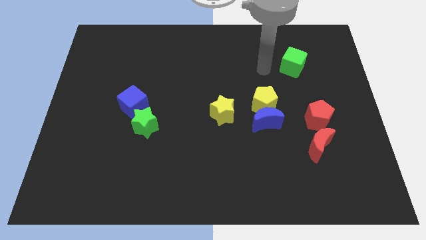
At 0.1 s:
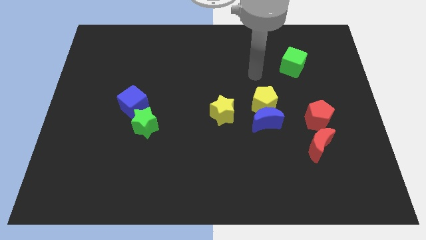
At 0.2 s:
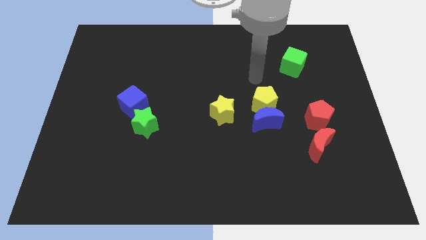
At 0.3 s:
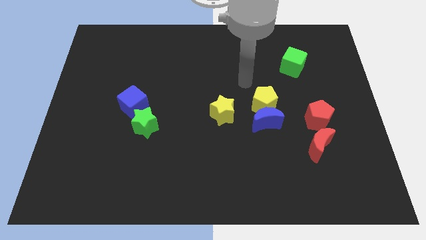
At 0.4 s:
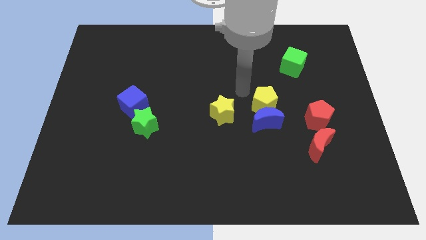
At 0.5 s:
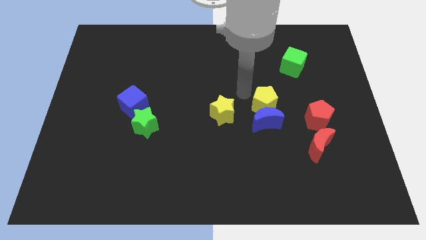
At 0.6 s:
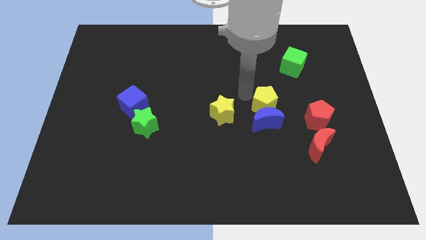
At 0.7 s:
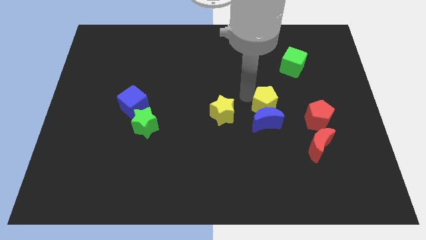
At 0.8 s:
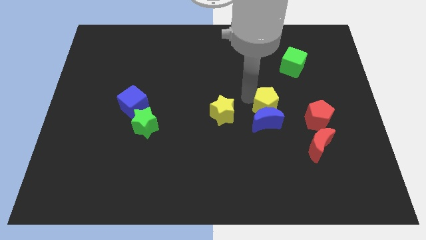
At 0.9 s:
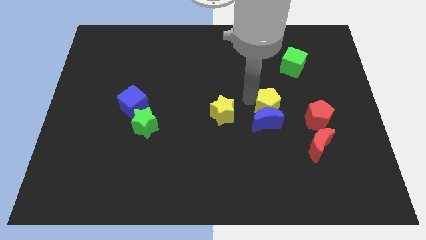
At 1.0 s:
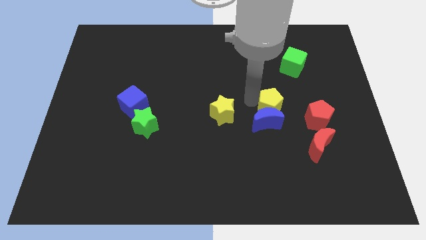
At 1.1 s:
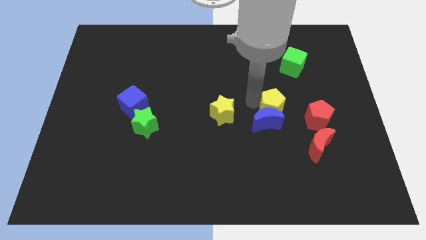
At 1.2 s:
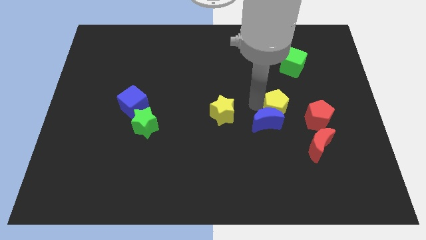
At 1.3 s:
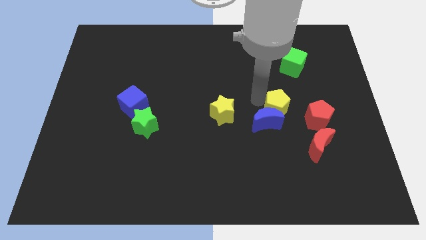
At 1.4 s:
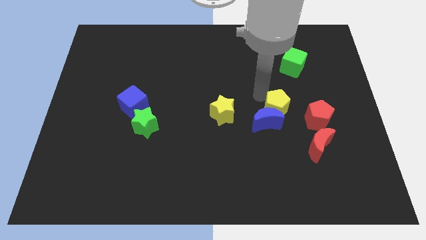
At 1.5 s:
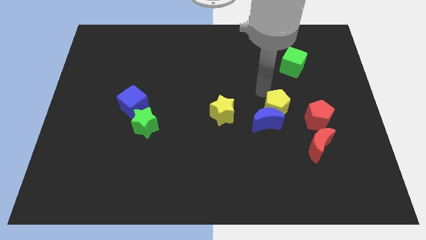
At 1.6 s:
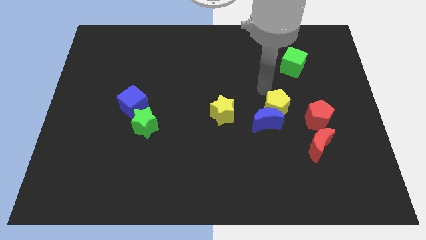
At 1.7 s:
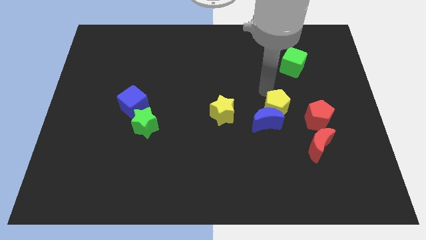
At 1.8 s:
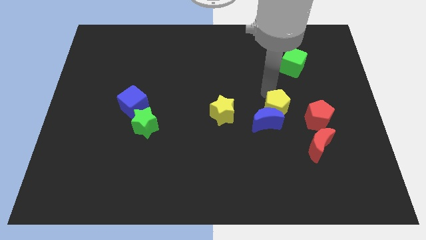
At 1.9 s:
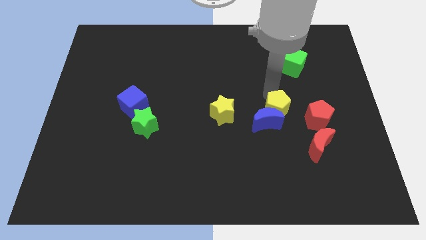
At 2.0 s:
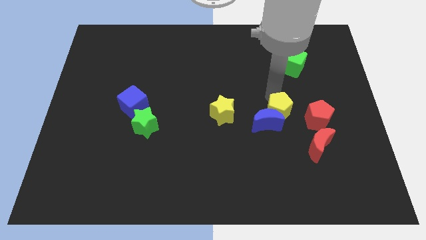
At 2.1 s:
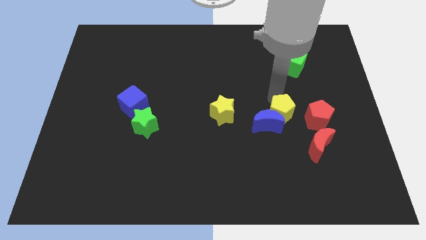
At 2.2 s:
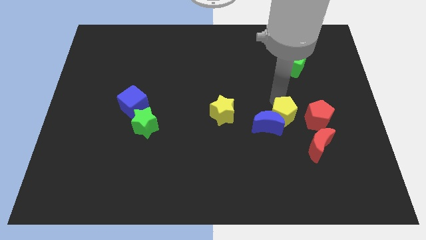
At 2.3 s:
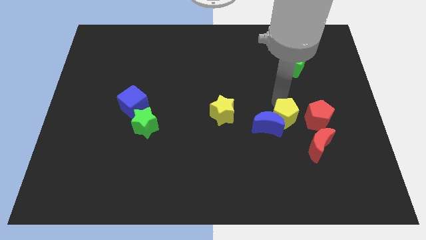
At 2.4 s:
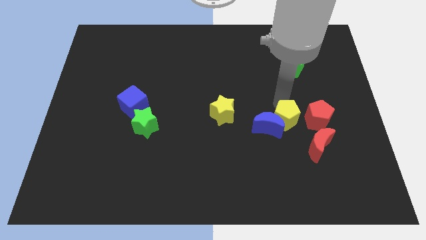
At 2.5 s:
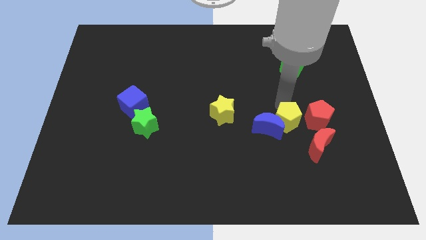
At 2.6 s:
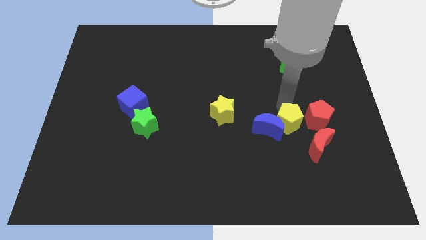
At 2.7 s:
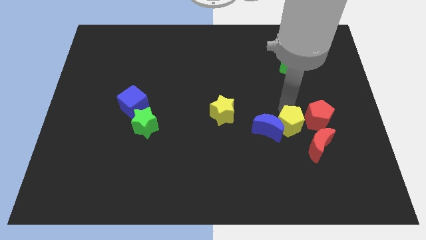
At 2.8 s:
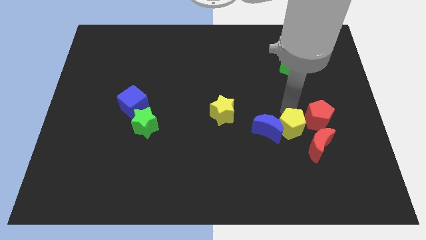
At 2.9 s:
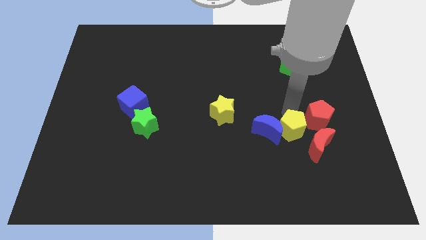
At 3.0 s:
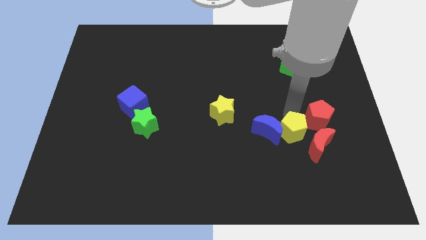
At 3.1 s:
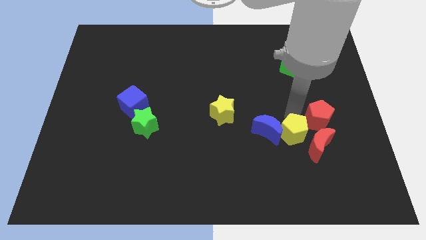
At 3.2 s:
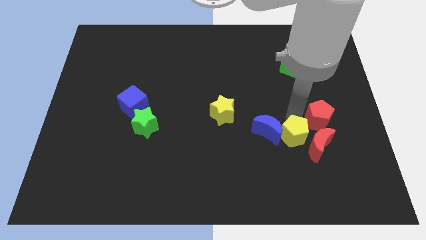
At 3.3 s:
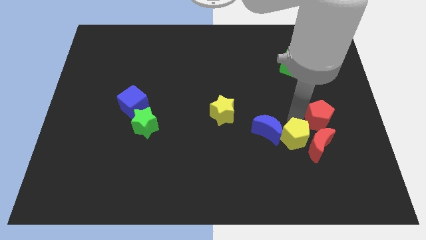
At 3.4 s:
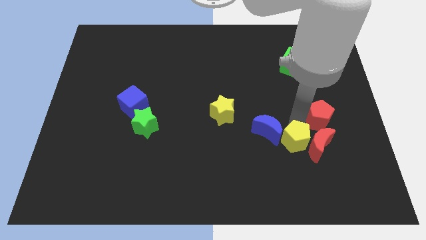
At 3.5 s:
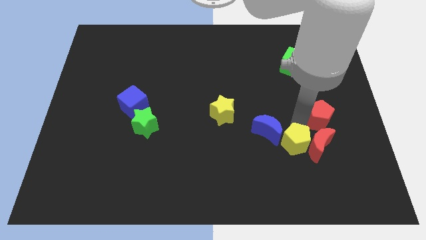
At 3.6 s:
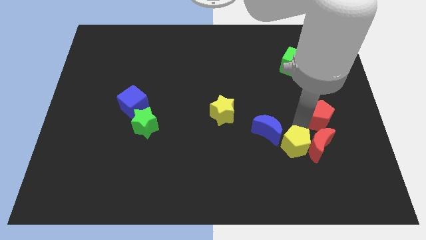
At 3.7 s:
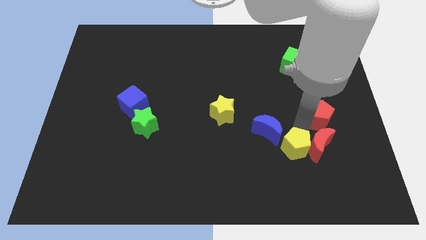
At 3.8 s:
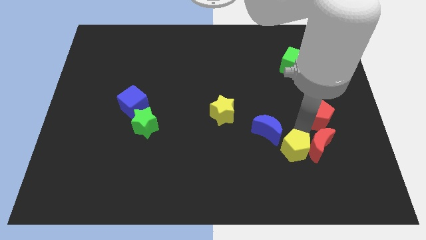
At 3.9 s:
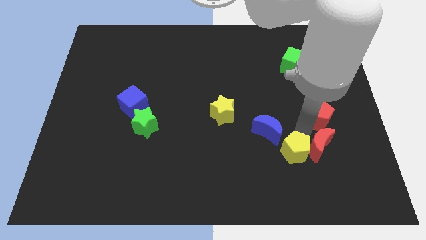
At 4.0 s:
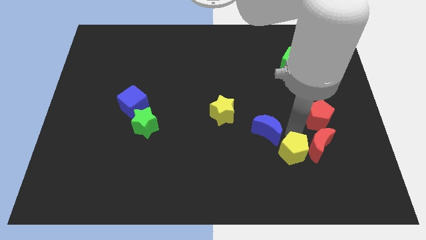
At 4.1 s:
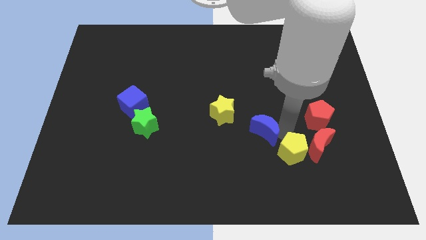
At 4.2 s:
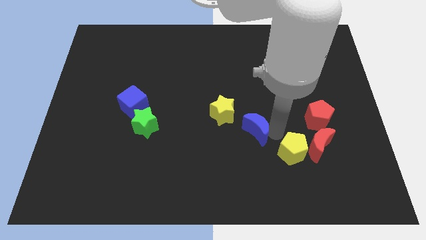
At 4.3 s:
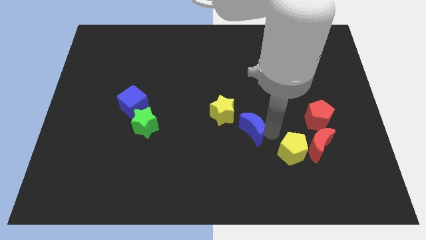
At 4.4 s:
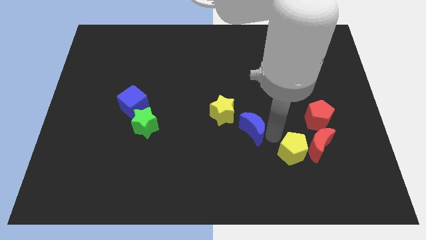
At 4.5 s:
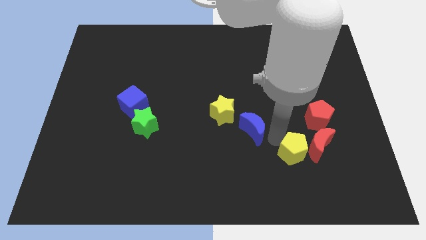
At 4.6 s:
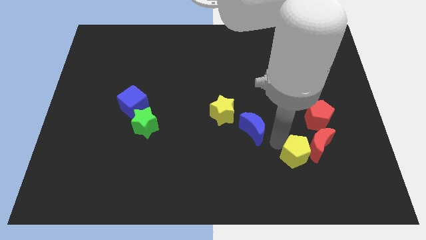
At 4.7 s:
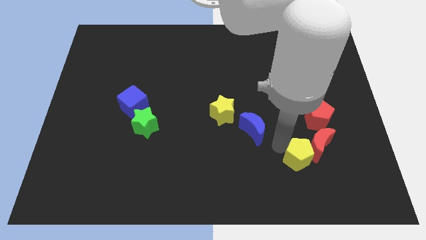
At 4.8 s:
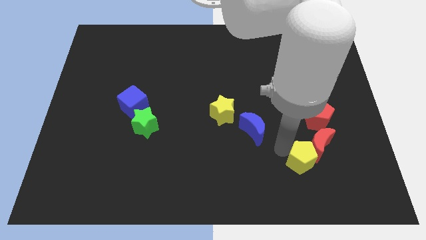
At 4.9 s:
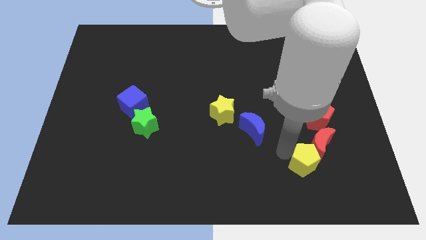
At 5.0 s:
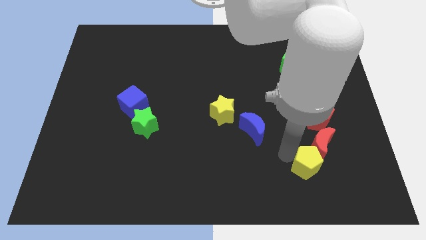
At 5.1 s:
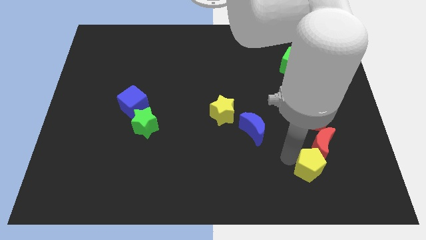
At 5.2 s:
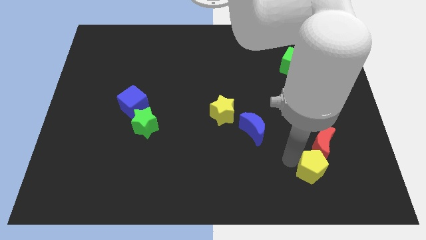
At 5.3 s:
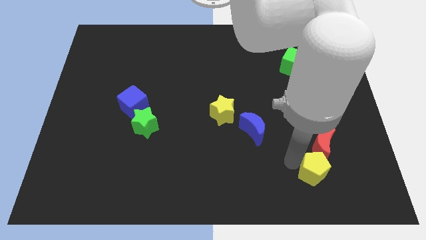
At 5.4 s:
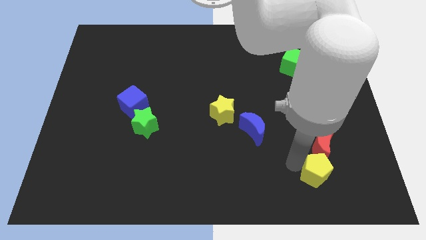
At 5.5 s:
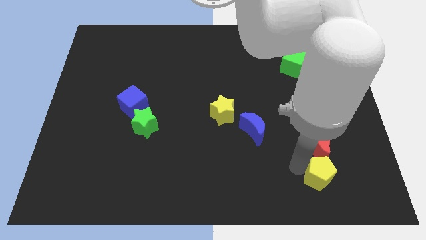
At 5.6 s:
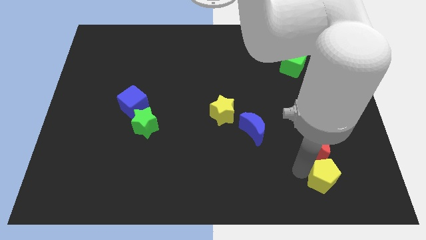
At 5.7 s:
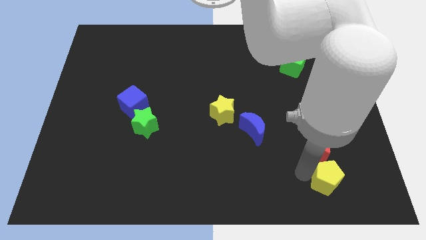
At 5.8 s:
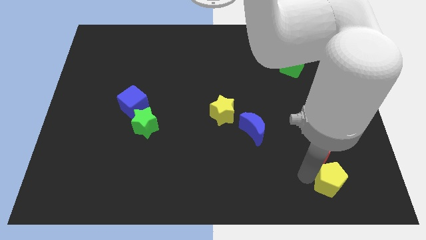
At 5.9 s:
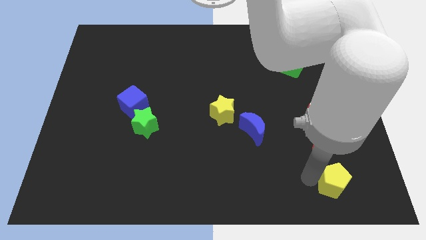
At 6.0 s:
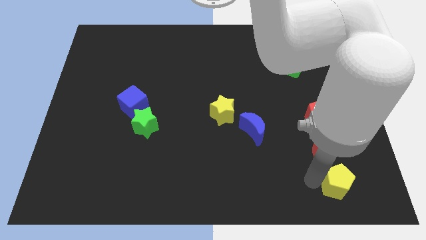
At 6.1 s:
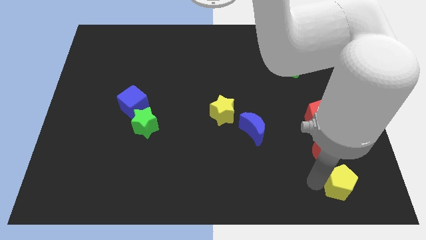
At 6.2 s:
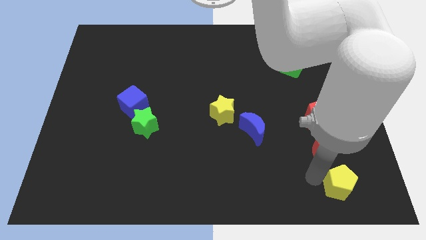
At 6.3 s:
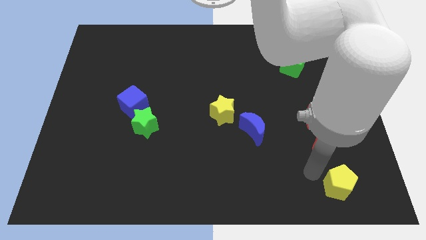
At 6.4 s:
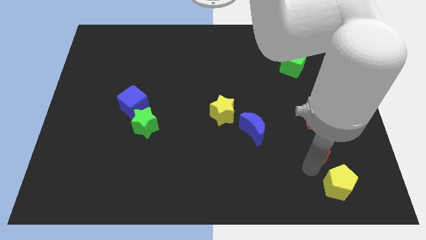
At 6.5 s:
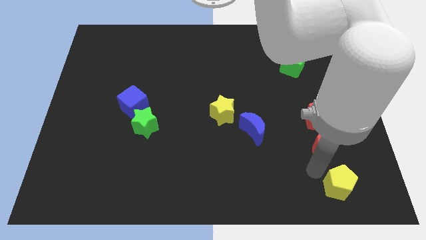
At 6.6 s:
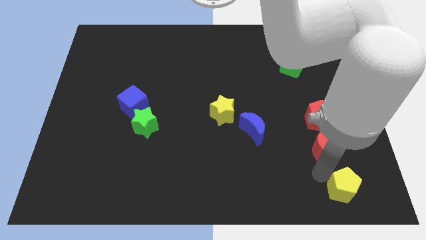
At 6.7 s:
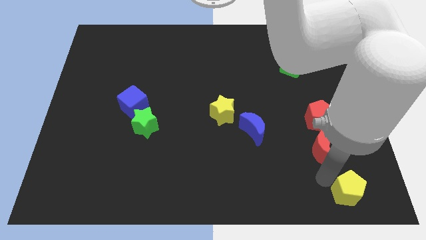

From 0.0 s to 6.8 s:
slide the yellow pentagon to the bottom right of the board
